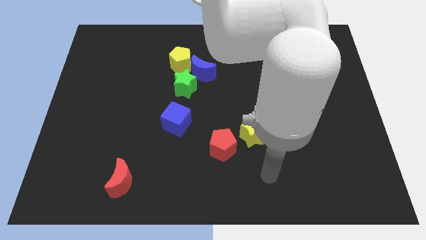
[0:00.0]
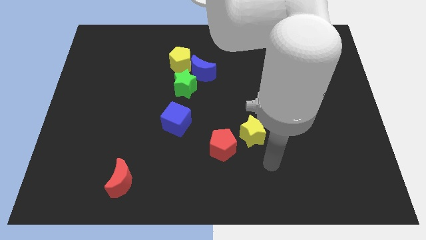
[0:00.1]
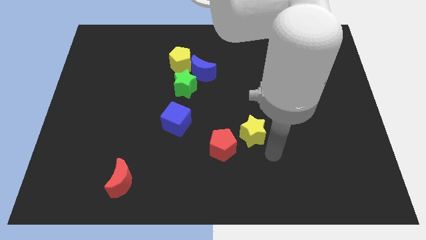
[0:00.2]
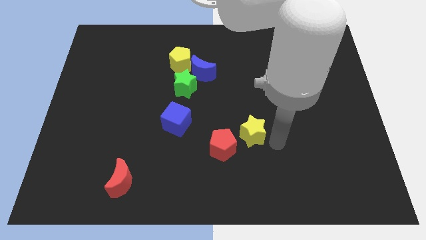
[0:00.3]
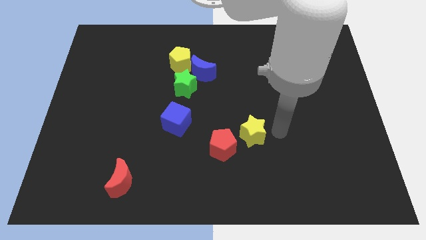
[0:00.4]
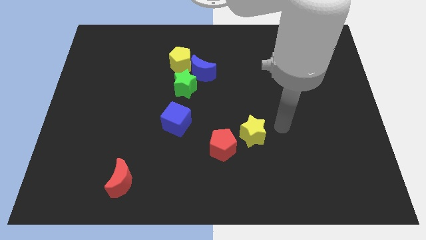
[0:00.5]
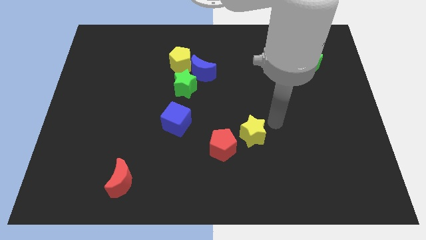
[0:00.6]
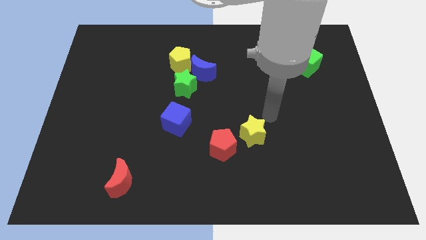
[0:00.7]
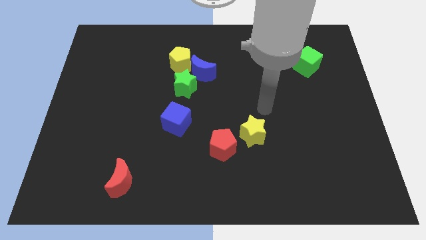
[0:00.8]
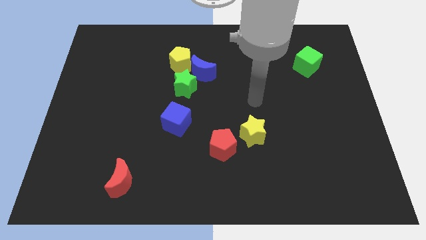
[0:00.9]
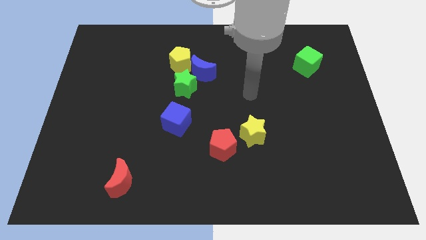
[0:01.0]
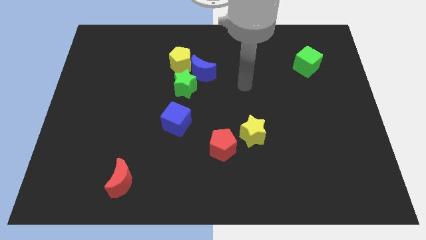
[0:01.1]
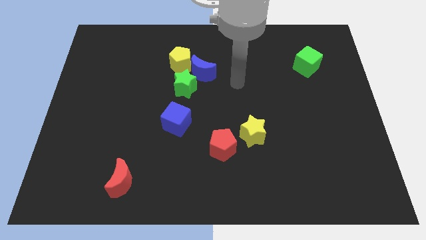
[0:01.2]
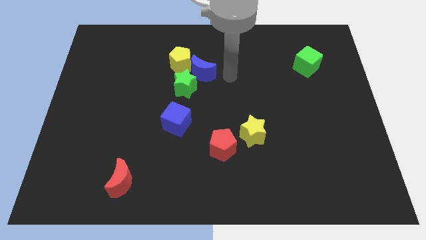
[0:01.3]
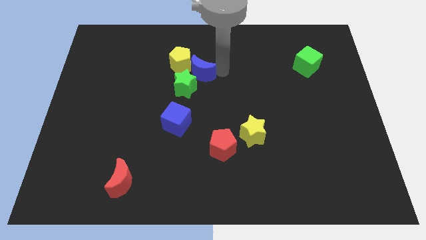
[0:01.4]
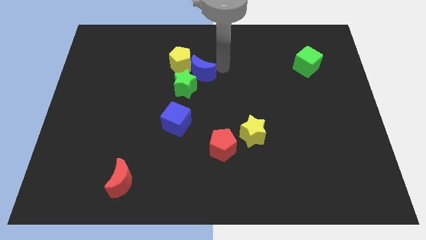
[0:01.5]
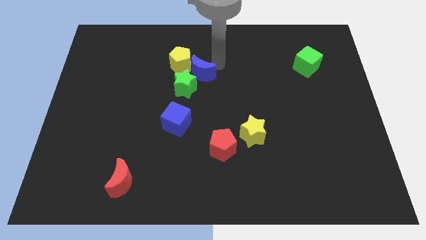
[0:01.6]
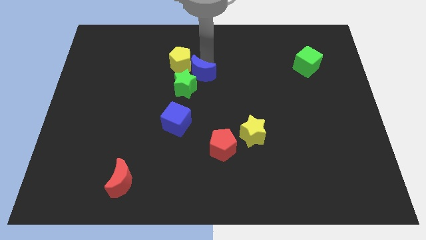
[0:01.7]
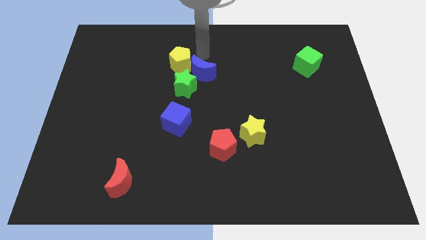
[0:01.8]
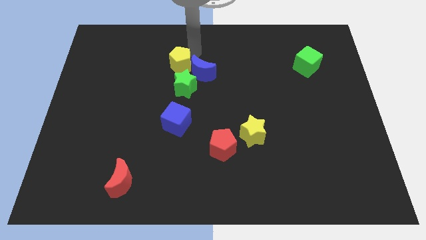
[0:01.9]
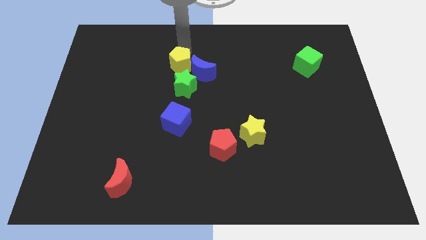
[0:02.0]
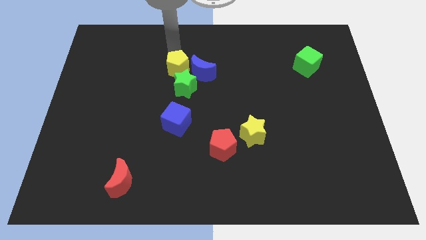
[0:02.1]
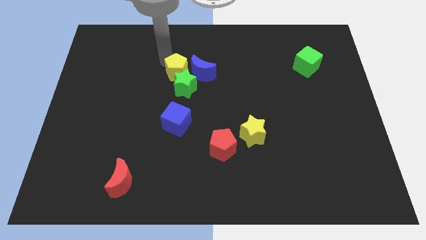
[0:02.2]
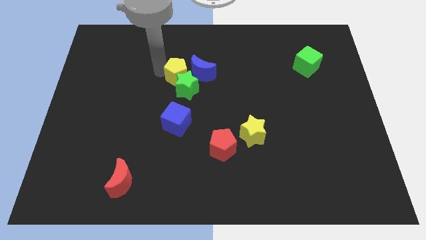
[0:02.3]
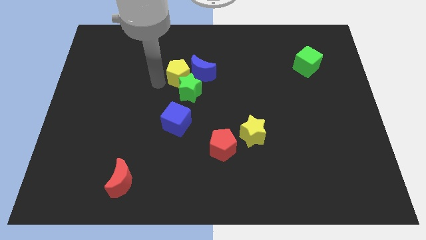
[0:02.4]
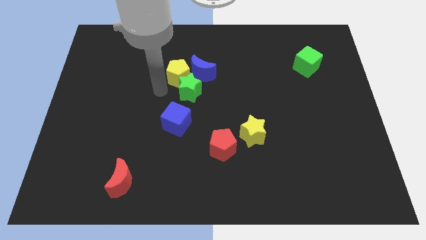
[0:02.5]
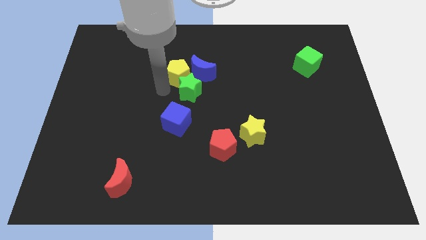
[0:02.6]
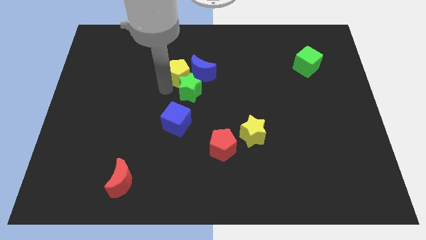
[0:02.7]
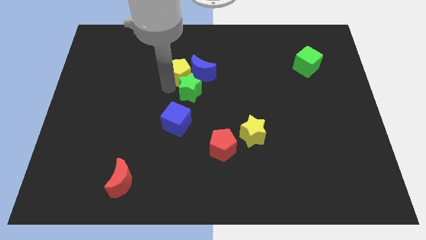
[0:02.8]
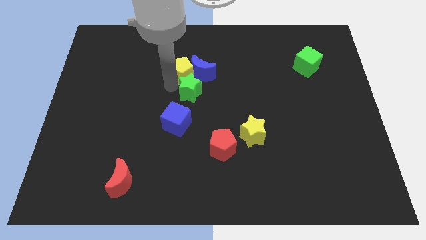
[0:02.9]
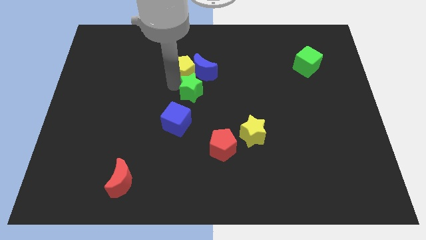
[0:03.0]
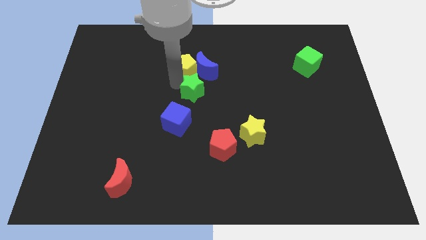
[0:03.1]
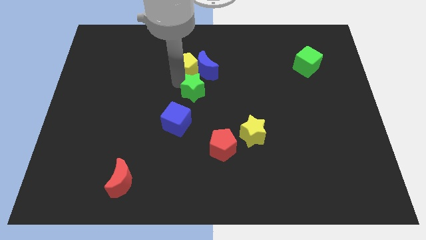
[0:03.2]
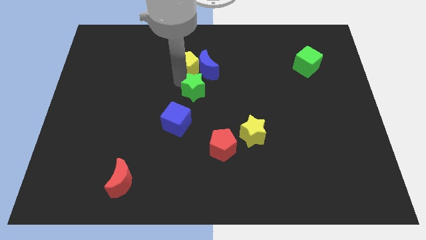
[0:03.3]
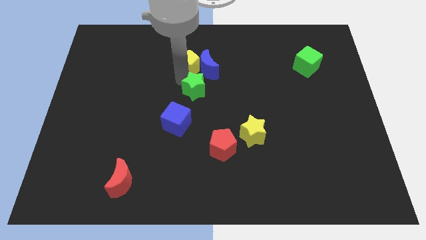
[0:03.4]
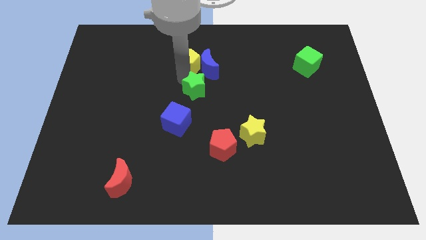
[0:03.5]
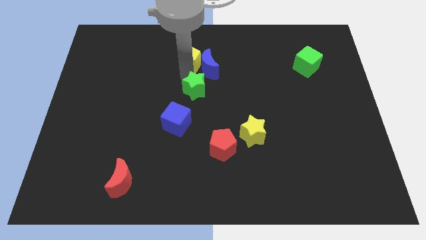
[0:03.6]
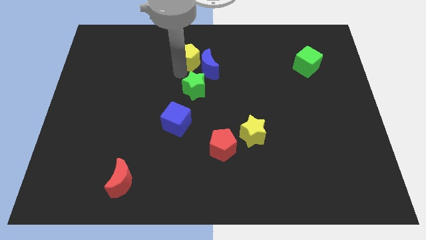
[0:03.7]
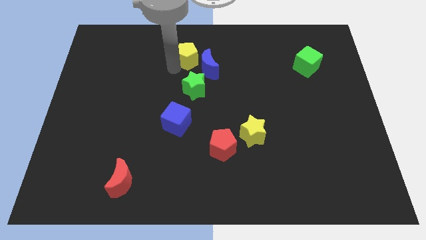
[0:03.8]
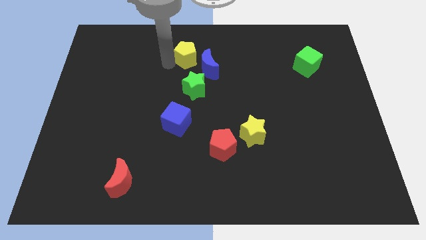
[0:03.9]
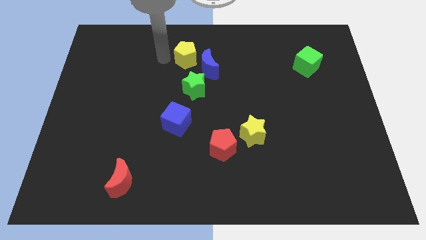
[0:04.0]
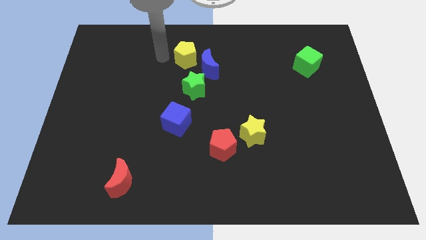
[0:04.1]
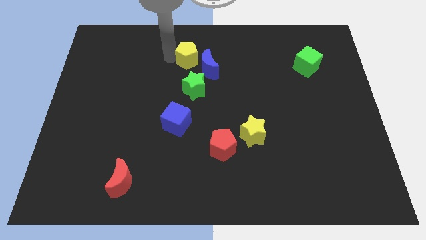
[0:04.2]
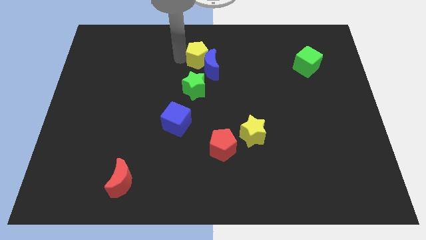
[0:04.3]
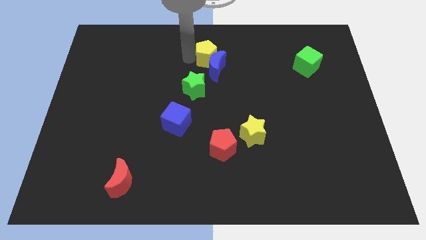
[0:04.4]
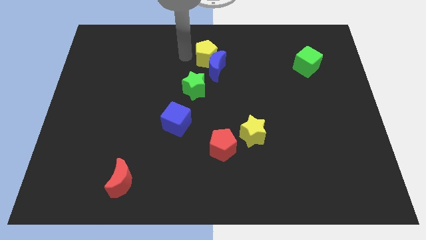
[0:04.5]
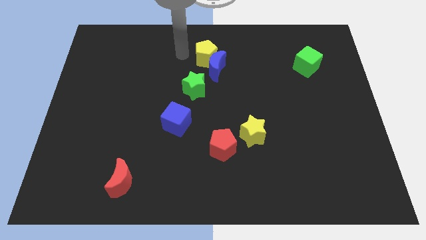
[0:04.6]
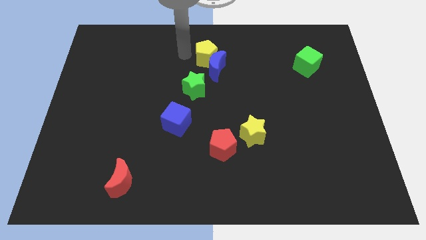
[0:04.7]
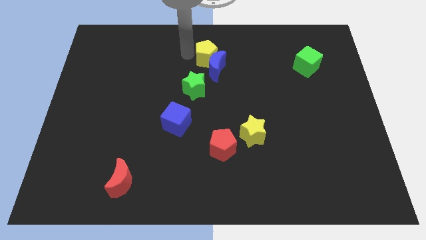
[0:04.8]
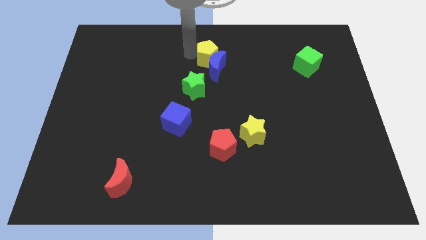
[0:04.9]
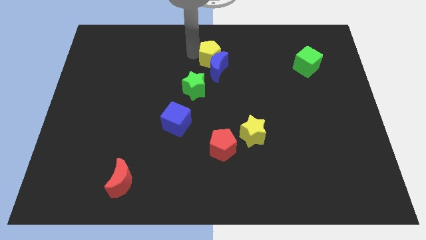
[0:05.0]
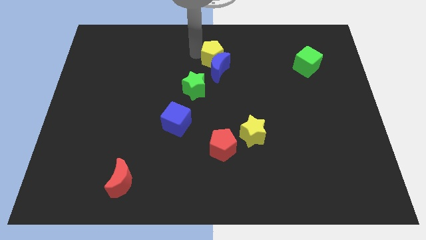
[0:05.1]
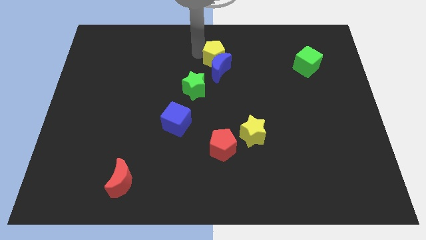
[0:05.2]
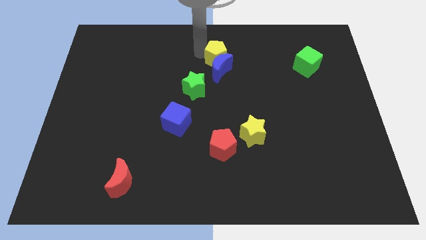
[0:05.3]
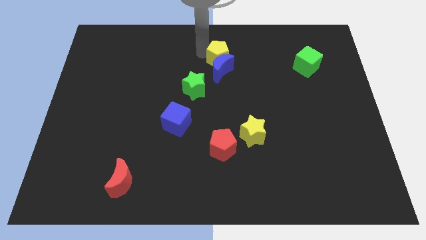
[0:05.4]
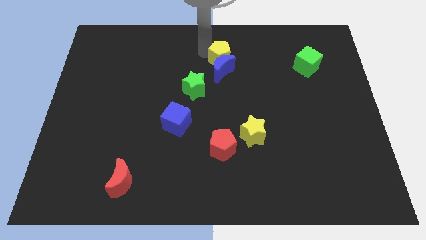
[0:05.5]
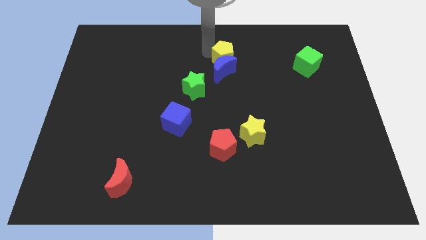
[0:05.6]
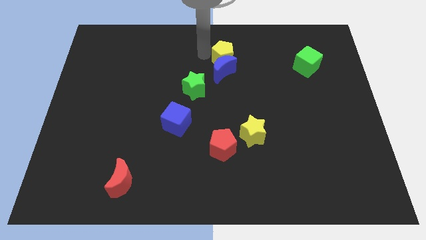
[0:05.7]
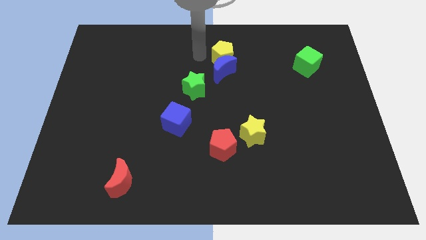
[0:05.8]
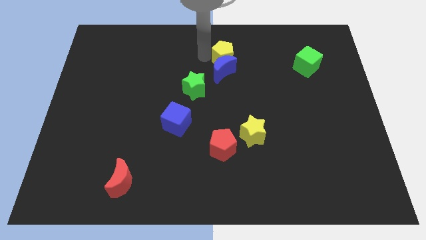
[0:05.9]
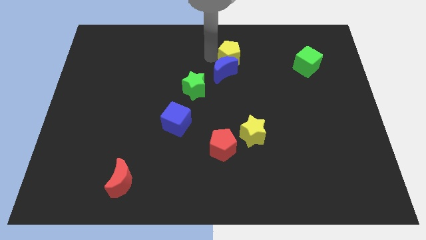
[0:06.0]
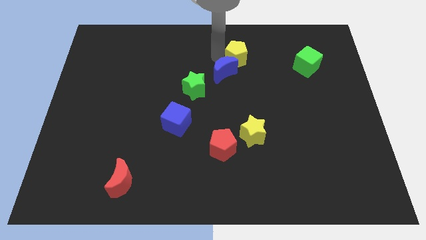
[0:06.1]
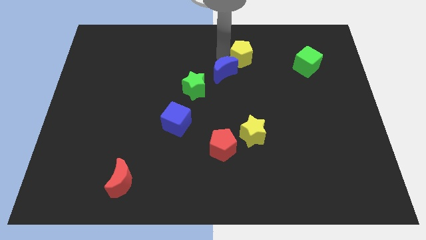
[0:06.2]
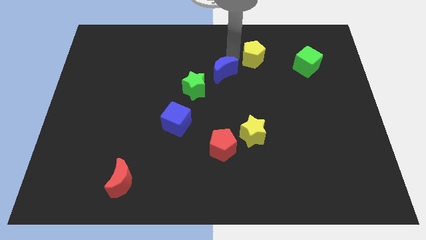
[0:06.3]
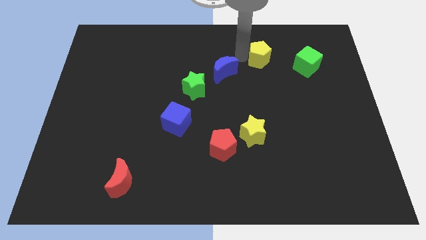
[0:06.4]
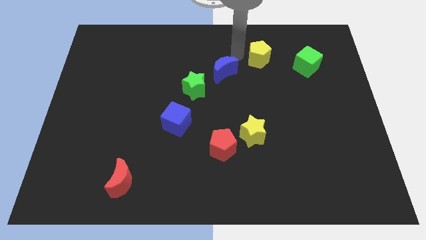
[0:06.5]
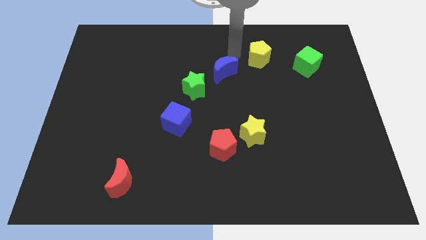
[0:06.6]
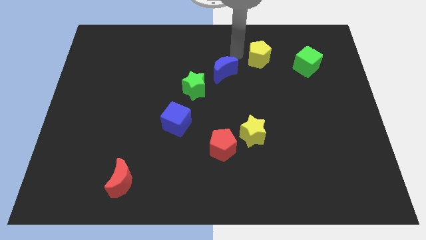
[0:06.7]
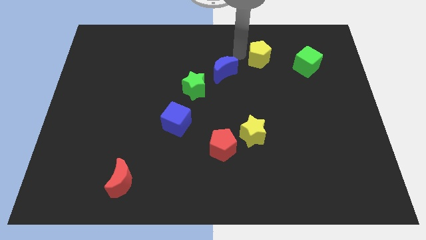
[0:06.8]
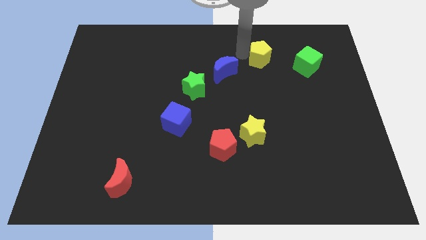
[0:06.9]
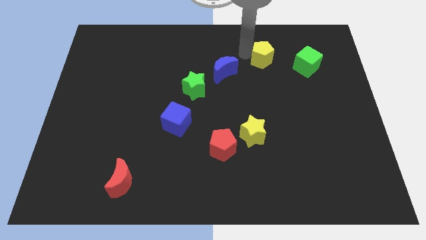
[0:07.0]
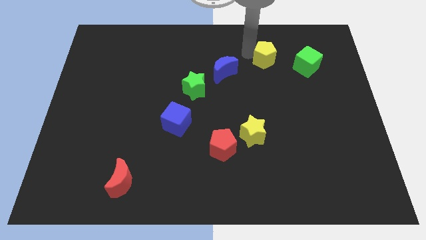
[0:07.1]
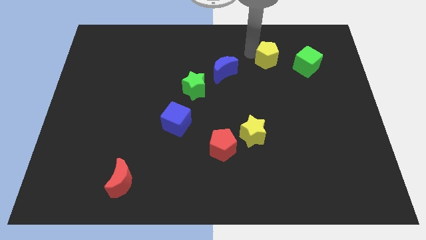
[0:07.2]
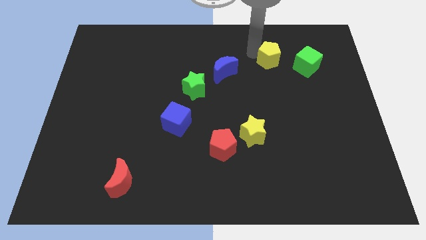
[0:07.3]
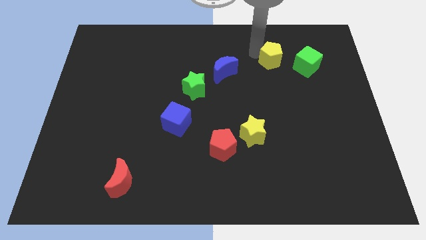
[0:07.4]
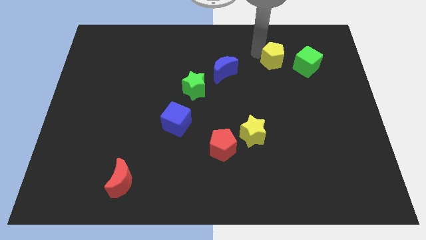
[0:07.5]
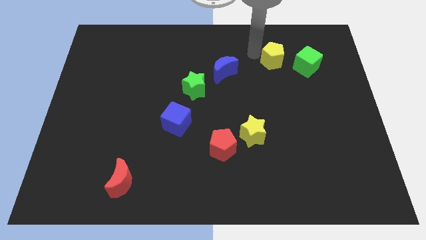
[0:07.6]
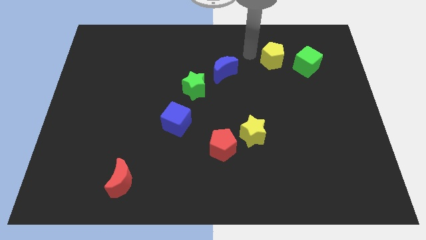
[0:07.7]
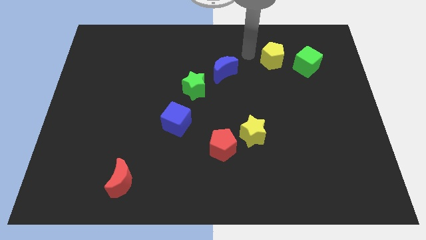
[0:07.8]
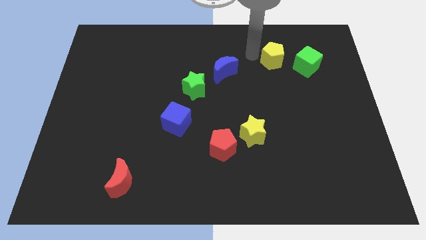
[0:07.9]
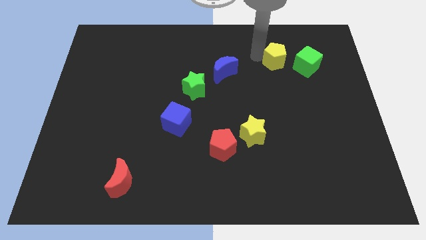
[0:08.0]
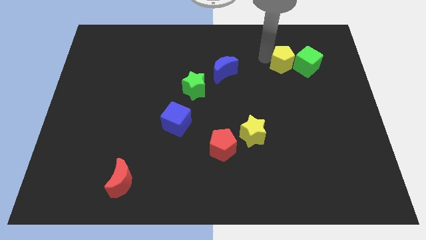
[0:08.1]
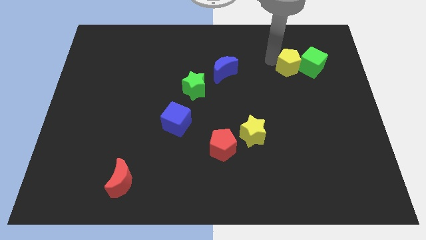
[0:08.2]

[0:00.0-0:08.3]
push the yellow pentagon close to the green cube
